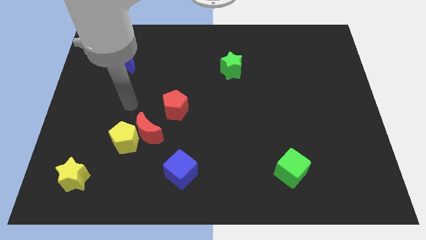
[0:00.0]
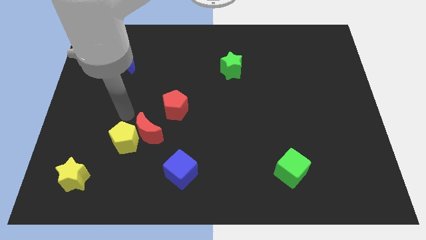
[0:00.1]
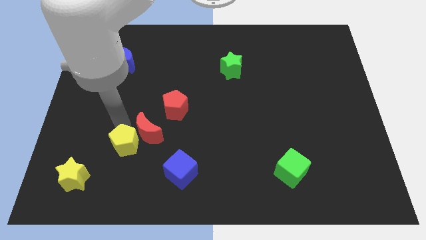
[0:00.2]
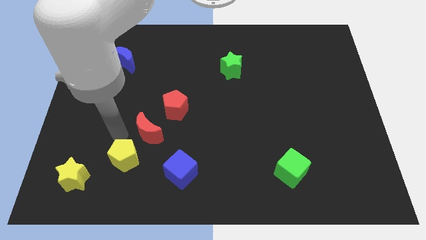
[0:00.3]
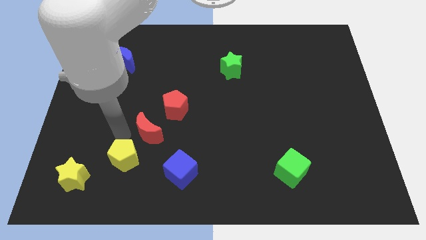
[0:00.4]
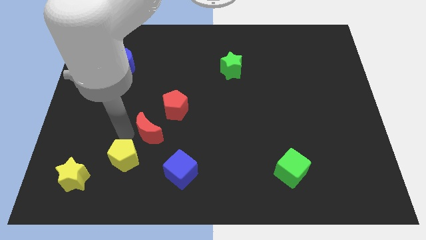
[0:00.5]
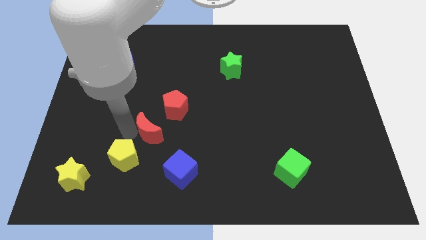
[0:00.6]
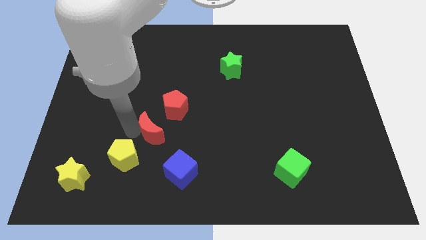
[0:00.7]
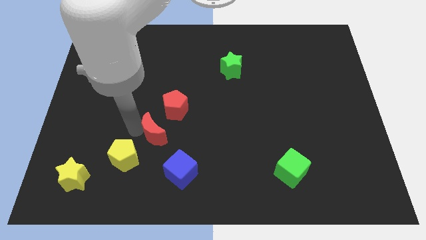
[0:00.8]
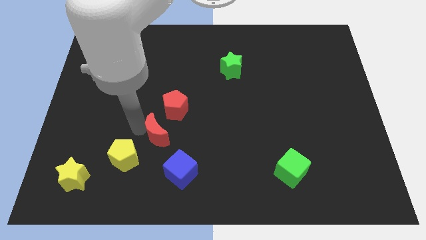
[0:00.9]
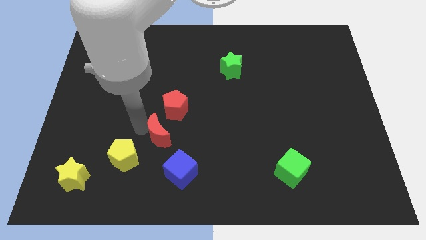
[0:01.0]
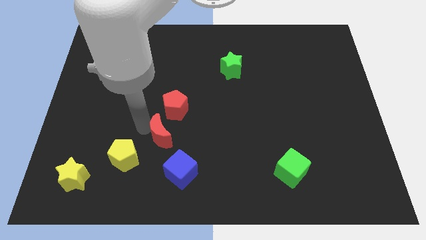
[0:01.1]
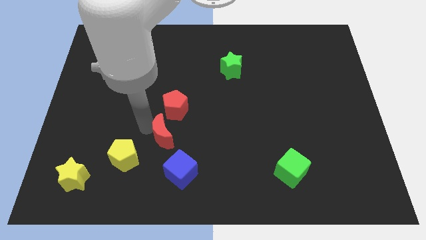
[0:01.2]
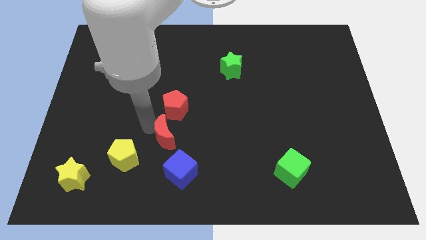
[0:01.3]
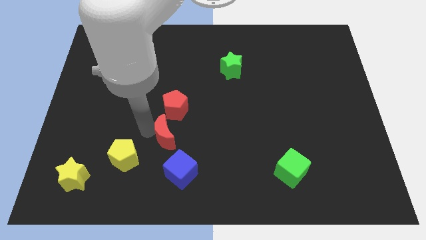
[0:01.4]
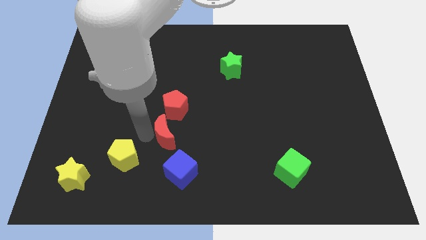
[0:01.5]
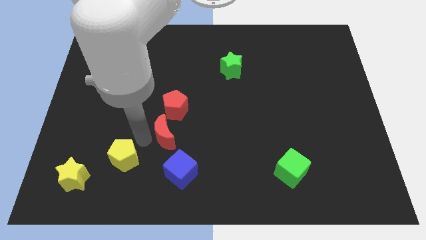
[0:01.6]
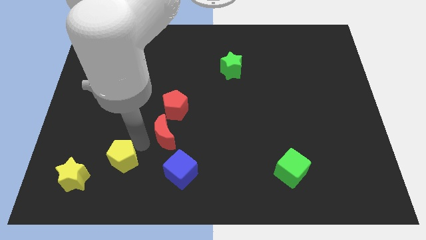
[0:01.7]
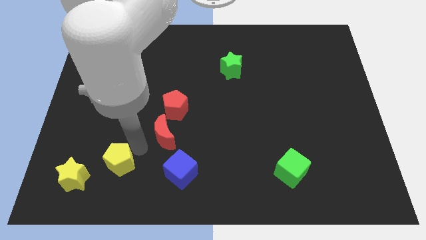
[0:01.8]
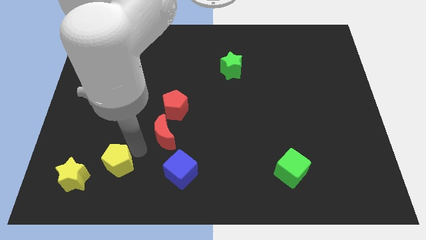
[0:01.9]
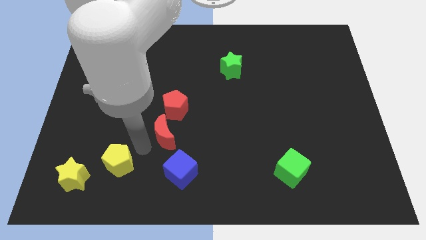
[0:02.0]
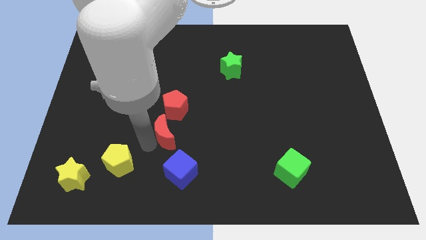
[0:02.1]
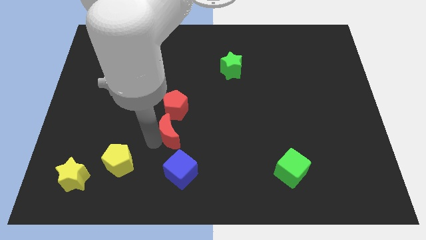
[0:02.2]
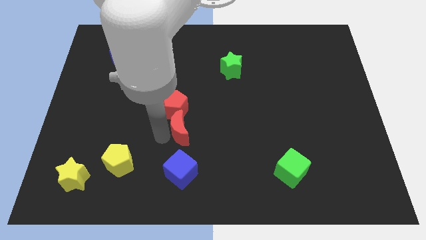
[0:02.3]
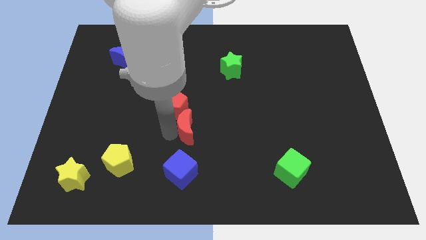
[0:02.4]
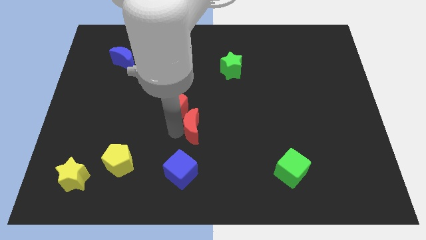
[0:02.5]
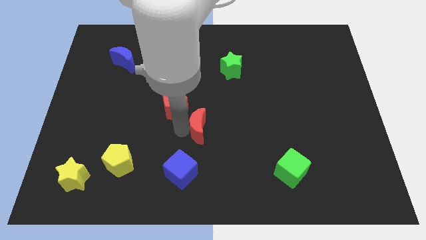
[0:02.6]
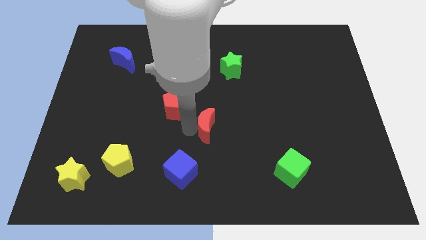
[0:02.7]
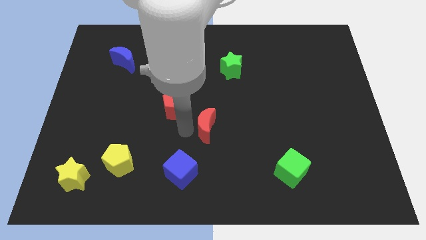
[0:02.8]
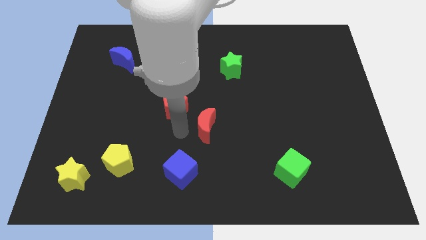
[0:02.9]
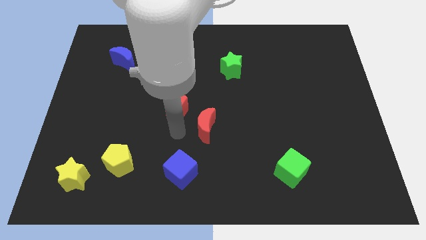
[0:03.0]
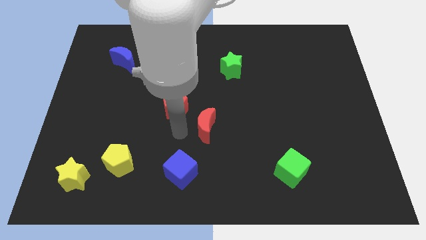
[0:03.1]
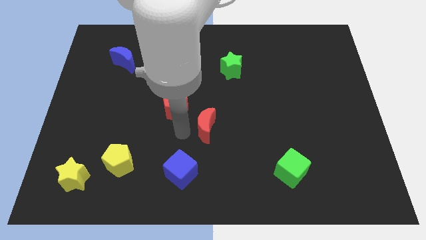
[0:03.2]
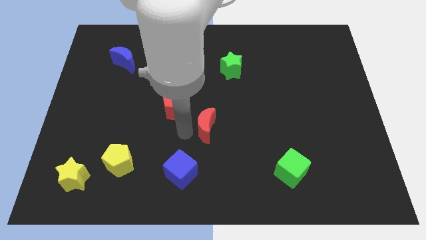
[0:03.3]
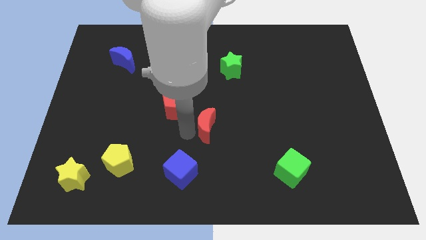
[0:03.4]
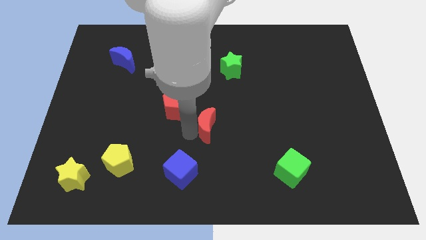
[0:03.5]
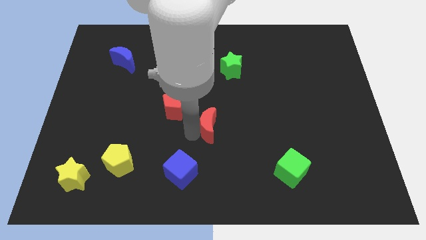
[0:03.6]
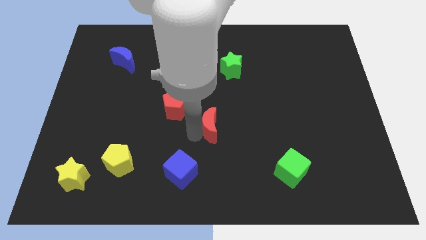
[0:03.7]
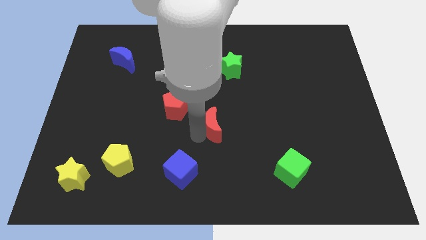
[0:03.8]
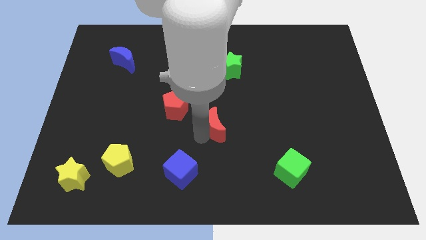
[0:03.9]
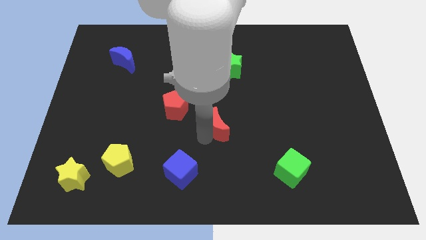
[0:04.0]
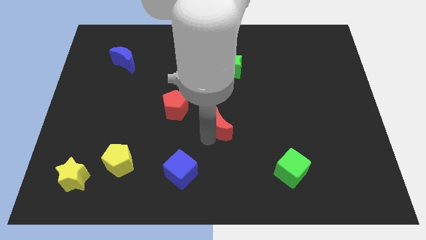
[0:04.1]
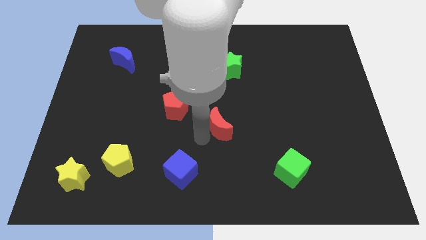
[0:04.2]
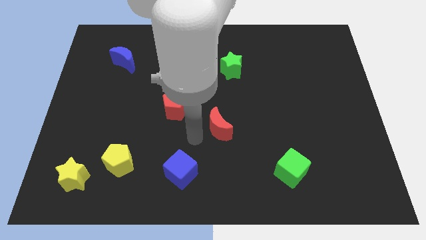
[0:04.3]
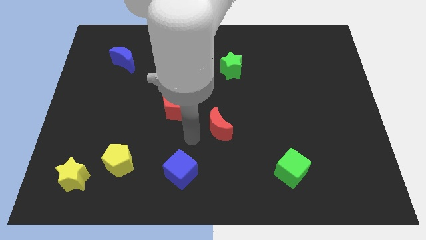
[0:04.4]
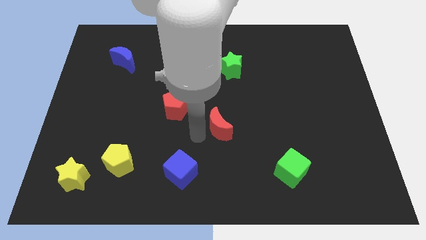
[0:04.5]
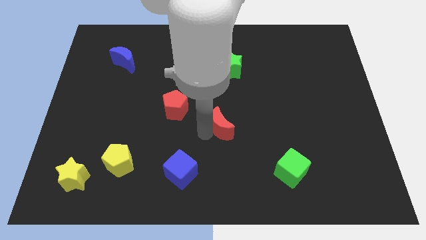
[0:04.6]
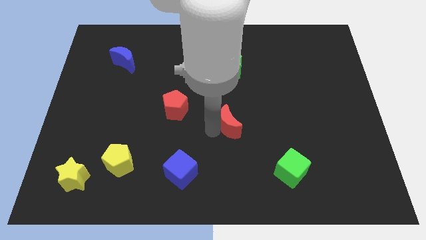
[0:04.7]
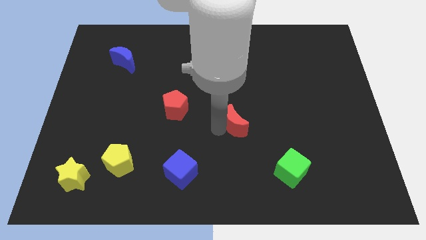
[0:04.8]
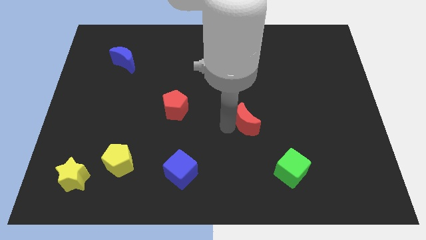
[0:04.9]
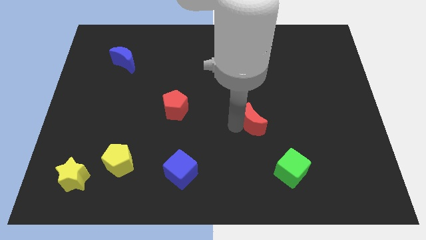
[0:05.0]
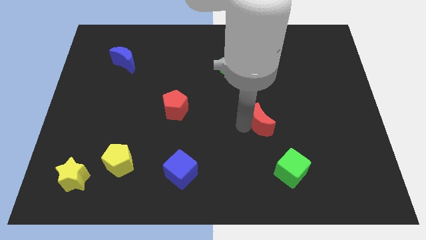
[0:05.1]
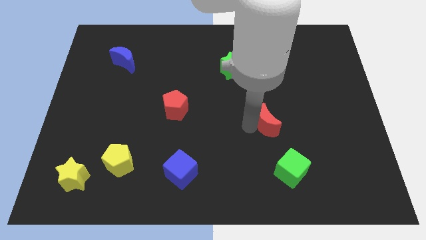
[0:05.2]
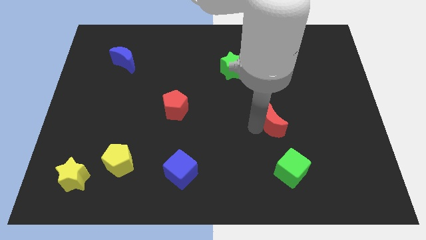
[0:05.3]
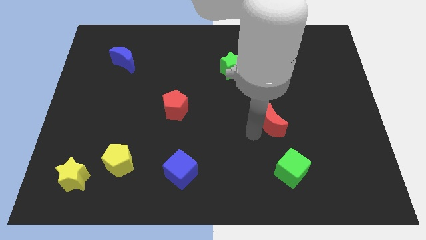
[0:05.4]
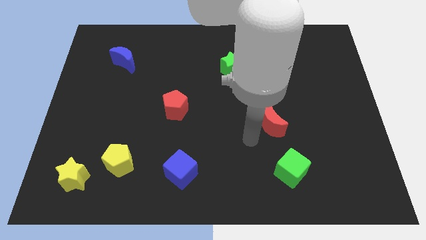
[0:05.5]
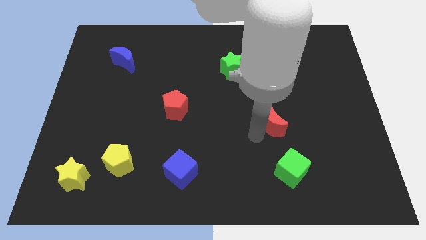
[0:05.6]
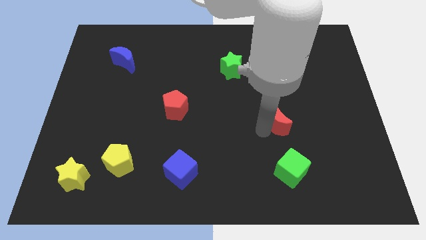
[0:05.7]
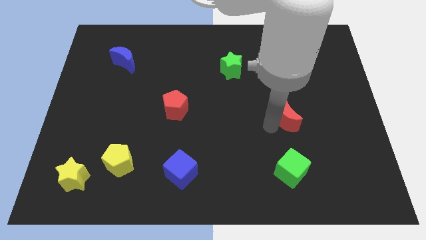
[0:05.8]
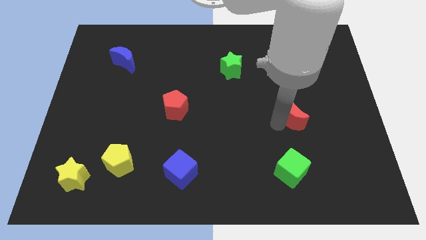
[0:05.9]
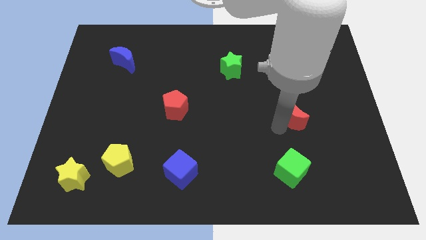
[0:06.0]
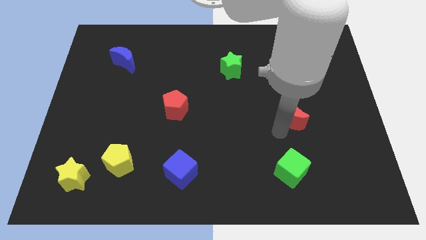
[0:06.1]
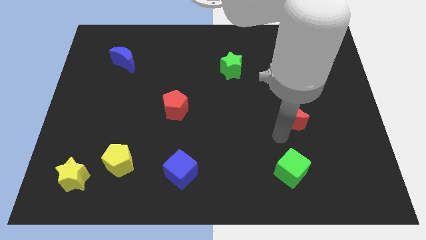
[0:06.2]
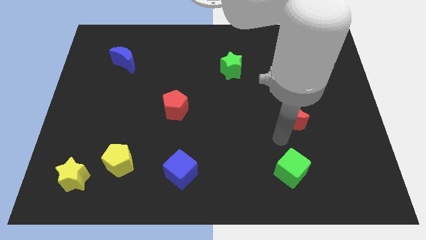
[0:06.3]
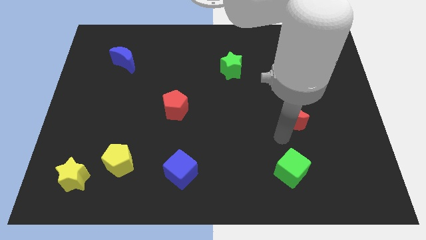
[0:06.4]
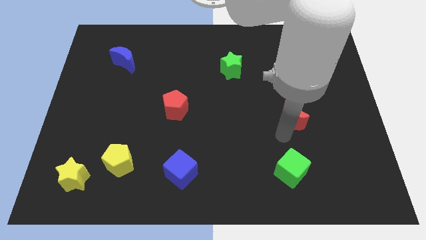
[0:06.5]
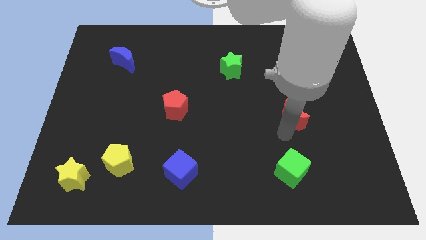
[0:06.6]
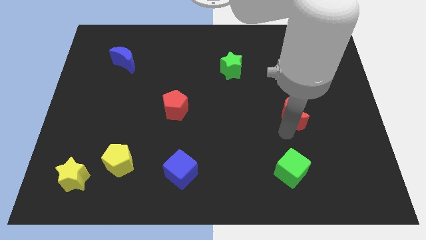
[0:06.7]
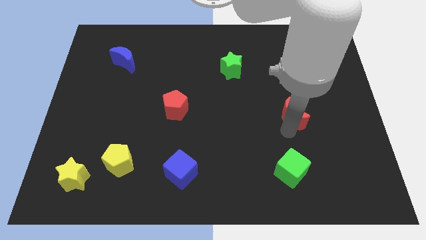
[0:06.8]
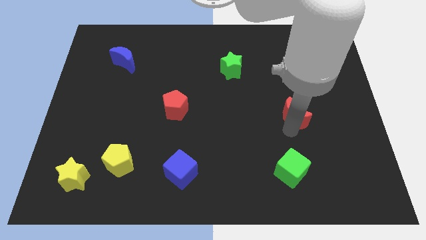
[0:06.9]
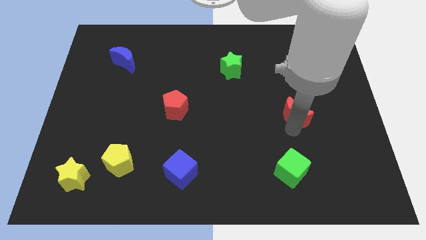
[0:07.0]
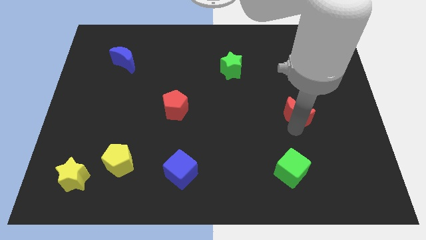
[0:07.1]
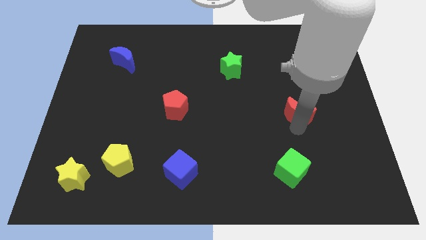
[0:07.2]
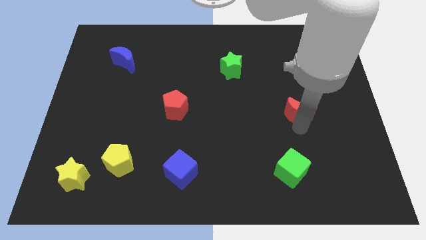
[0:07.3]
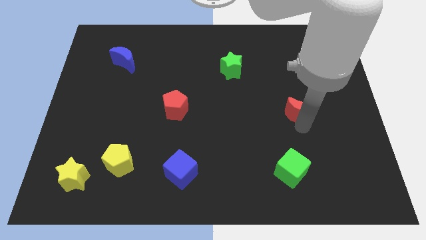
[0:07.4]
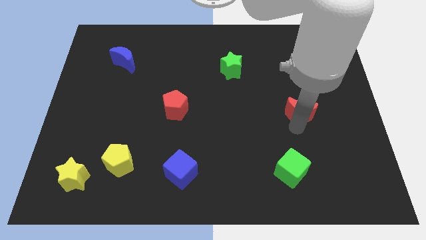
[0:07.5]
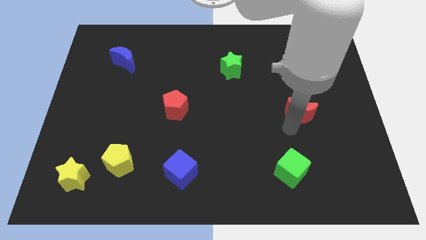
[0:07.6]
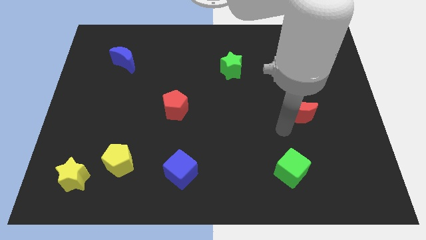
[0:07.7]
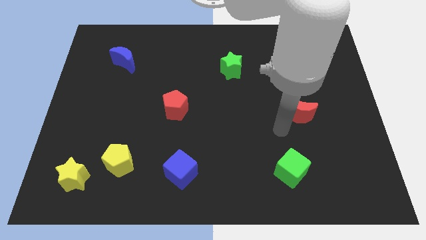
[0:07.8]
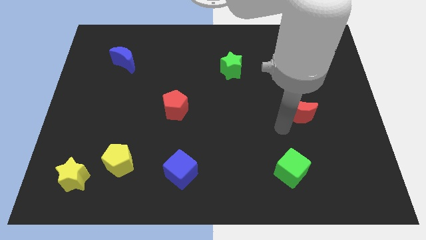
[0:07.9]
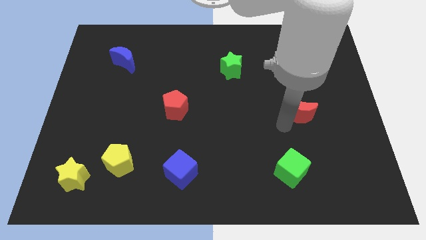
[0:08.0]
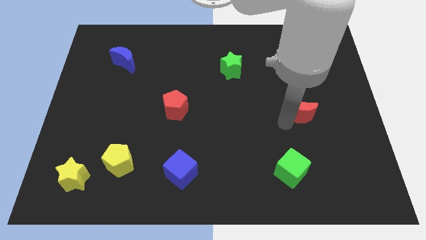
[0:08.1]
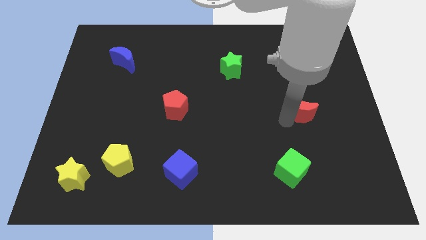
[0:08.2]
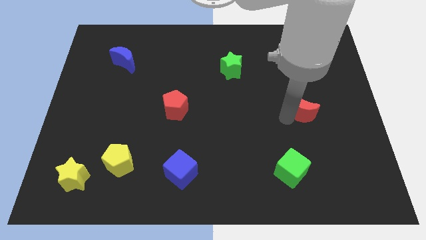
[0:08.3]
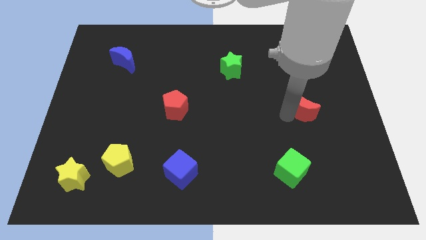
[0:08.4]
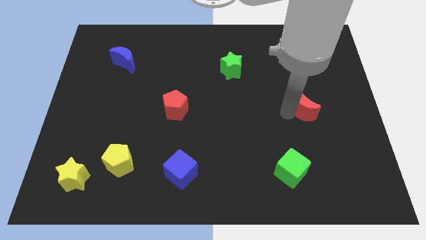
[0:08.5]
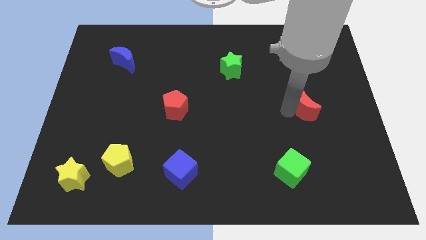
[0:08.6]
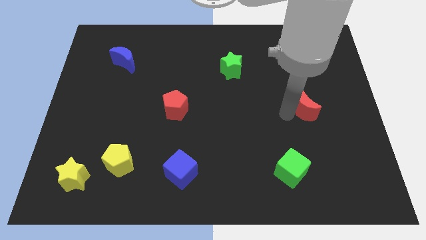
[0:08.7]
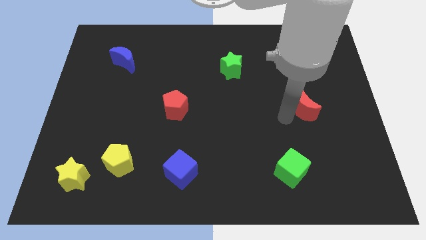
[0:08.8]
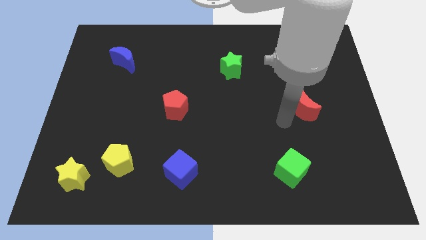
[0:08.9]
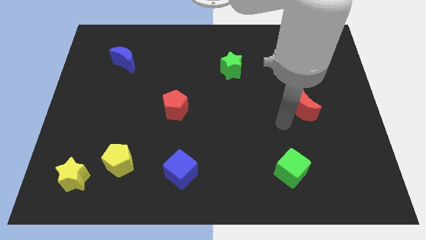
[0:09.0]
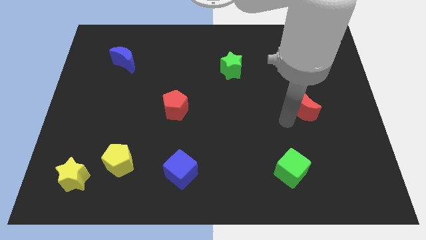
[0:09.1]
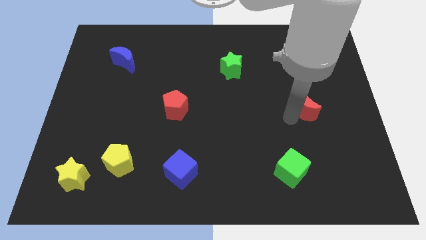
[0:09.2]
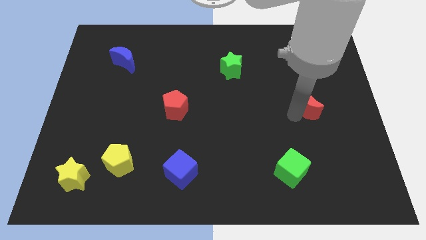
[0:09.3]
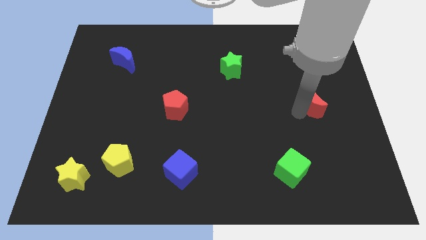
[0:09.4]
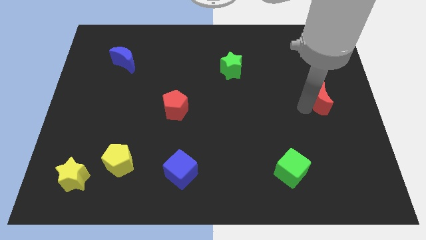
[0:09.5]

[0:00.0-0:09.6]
move the red moon to the right side
